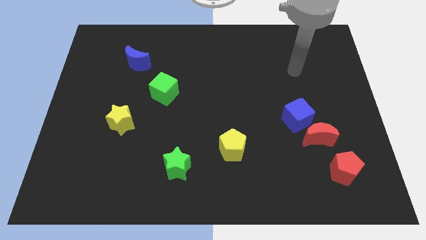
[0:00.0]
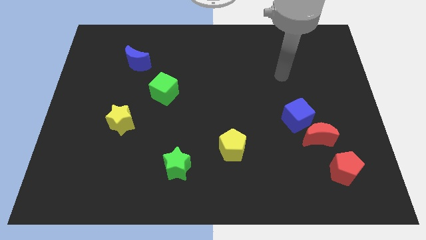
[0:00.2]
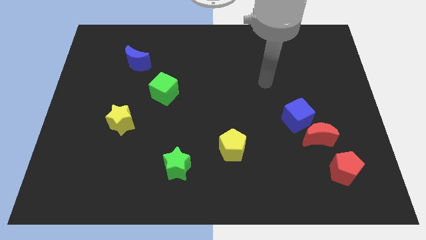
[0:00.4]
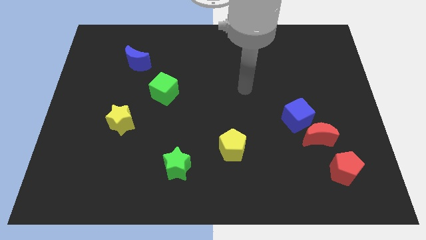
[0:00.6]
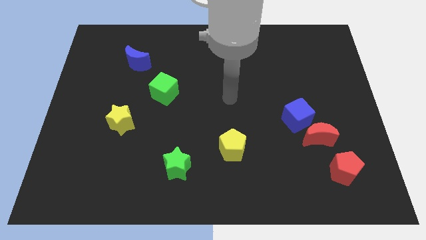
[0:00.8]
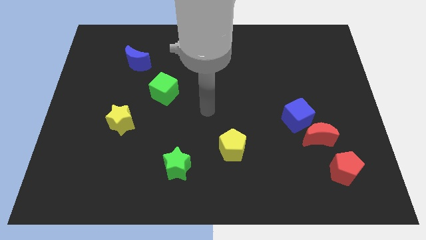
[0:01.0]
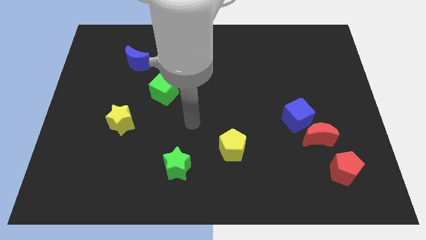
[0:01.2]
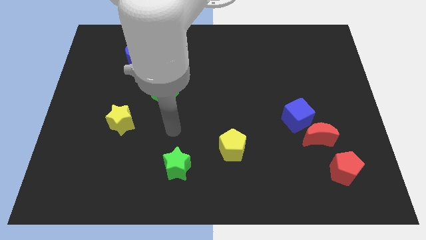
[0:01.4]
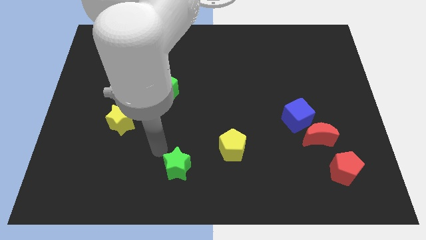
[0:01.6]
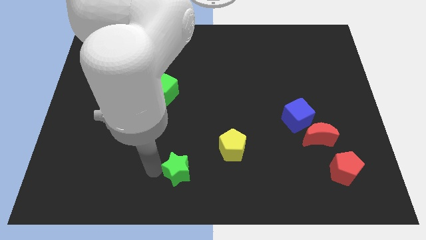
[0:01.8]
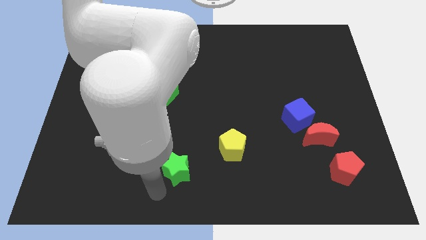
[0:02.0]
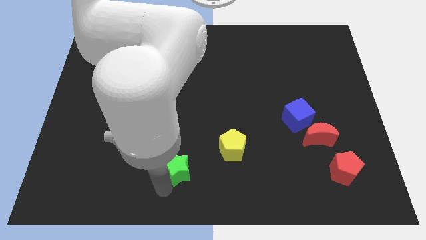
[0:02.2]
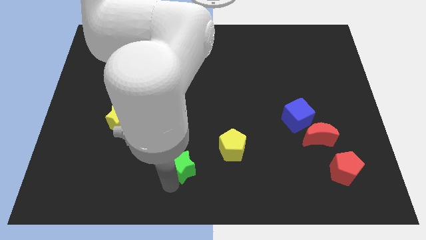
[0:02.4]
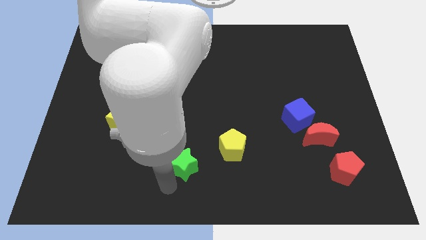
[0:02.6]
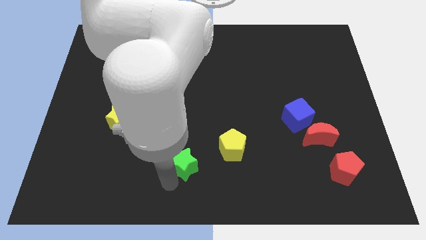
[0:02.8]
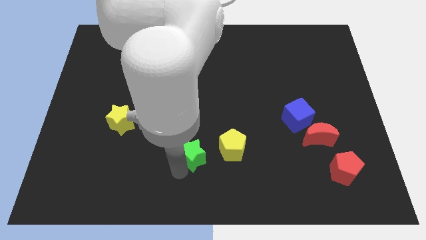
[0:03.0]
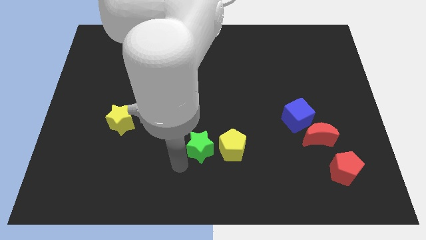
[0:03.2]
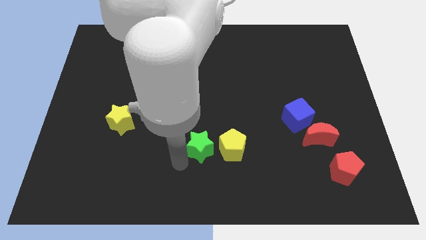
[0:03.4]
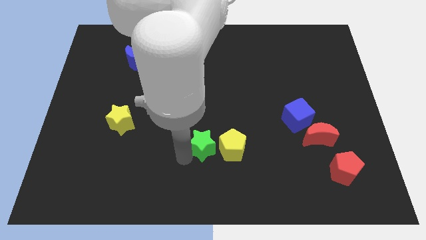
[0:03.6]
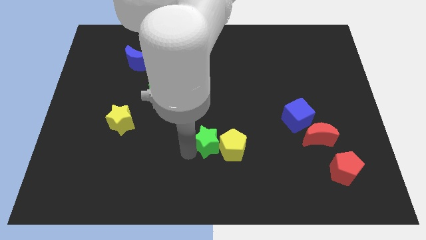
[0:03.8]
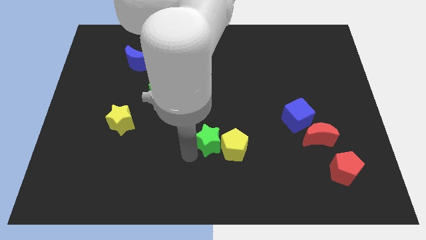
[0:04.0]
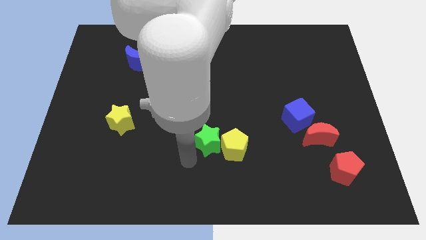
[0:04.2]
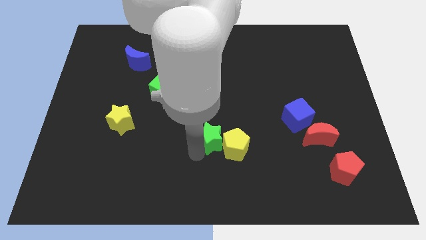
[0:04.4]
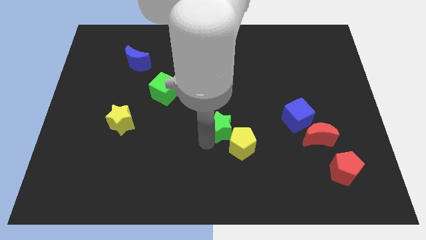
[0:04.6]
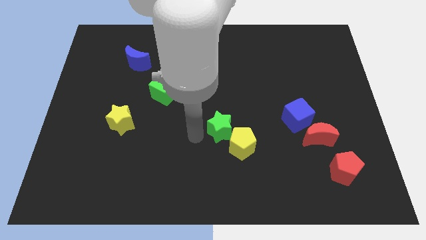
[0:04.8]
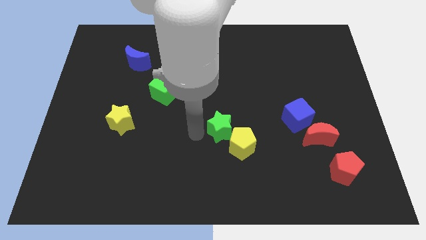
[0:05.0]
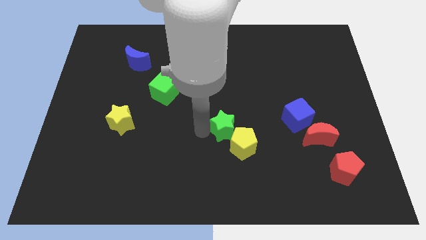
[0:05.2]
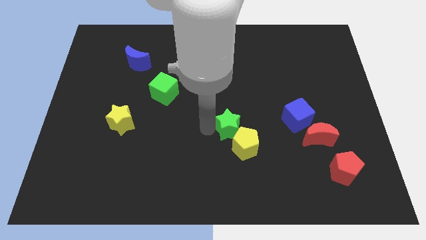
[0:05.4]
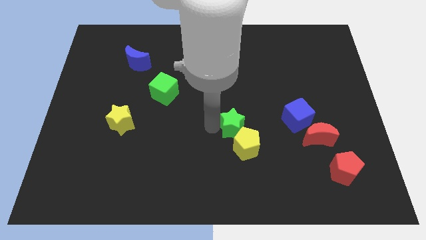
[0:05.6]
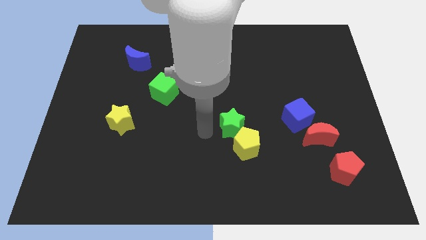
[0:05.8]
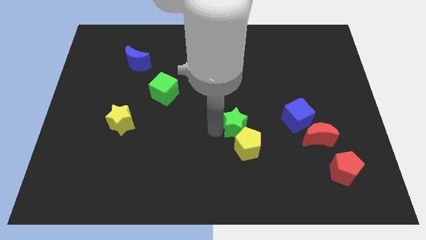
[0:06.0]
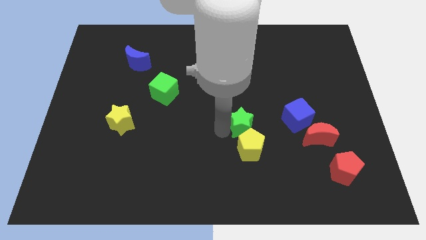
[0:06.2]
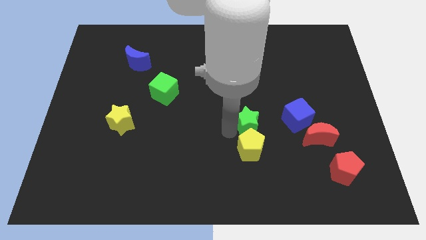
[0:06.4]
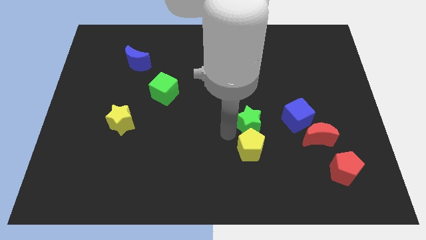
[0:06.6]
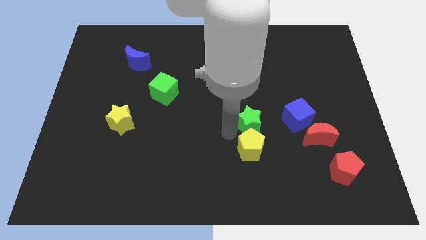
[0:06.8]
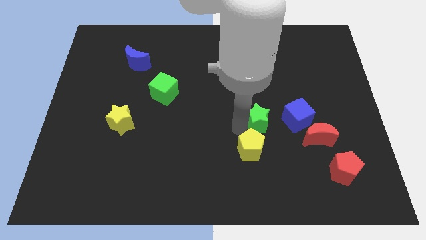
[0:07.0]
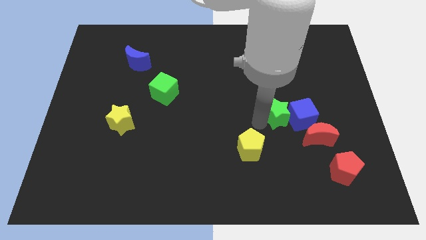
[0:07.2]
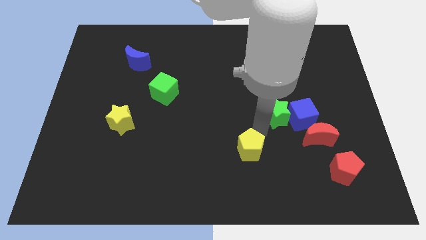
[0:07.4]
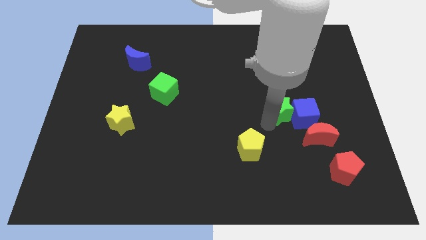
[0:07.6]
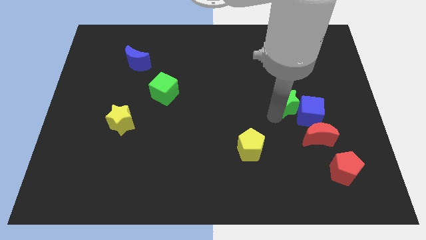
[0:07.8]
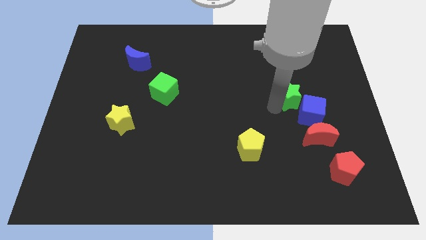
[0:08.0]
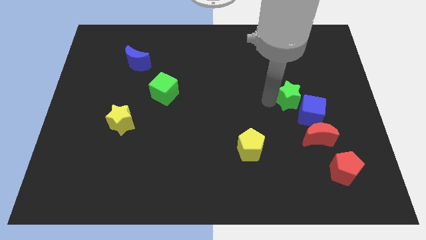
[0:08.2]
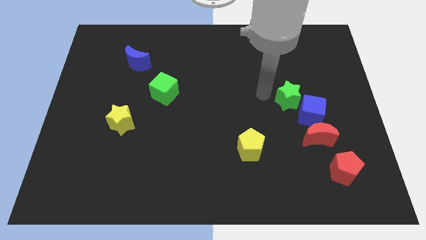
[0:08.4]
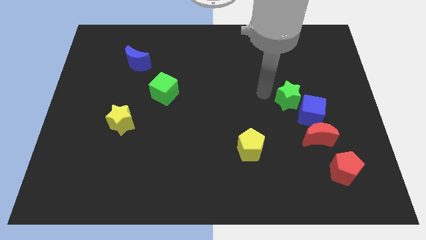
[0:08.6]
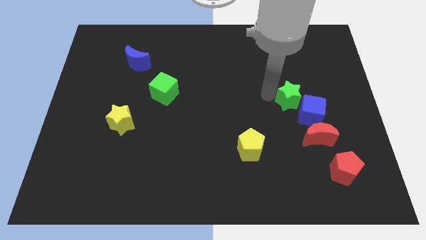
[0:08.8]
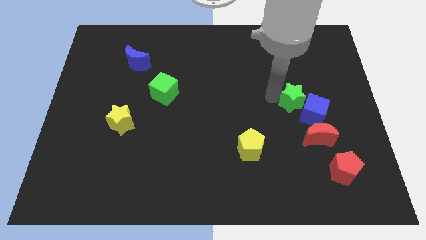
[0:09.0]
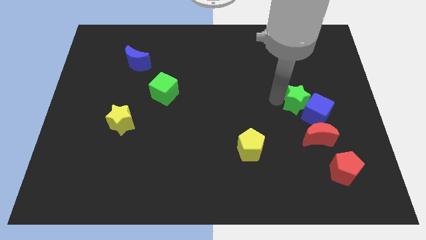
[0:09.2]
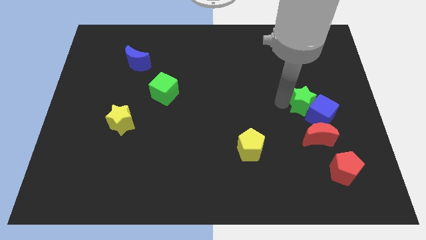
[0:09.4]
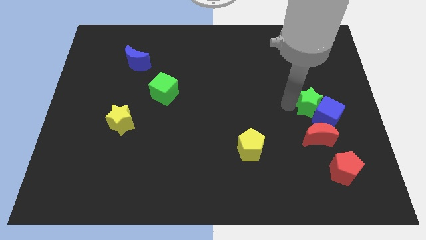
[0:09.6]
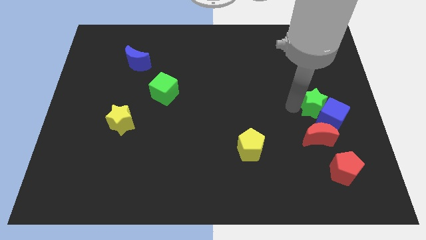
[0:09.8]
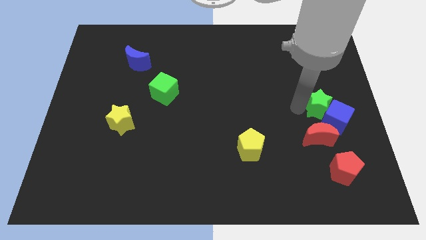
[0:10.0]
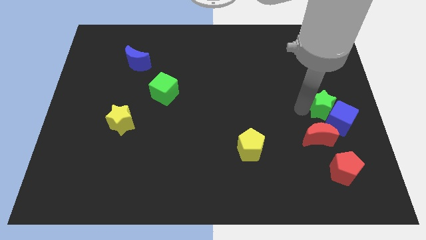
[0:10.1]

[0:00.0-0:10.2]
put the green star to the center right
